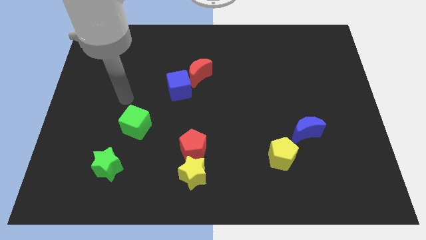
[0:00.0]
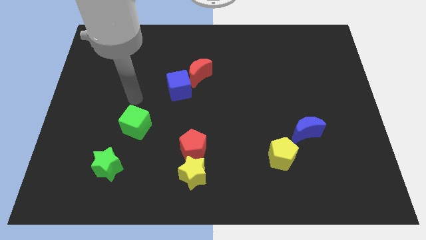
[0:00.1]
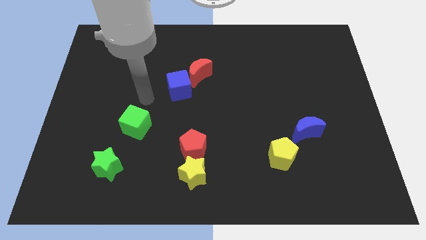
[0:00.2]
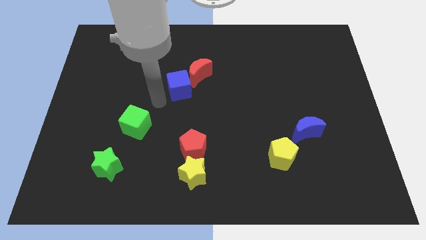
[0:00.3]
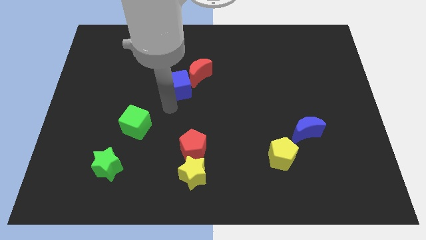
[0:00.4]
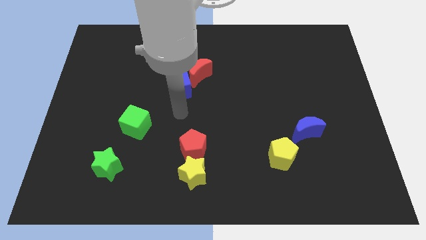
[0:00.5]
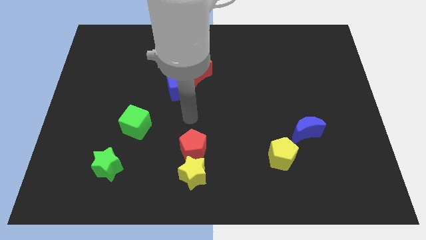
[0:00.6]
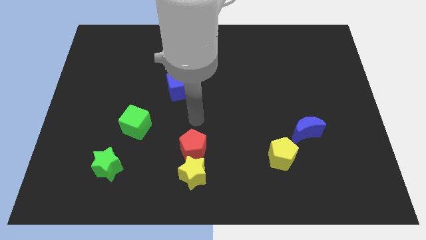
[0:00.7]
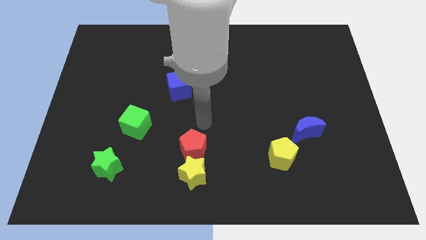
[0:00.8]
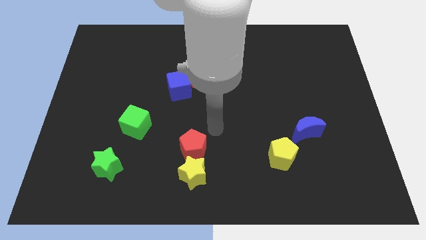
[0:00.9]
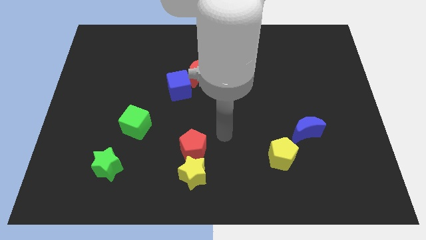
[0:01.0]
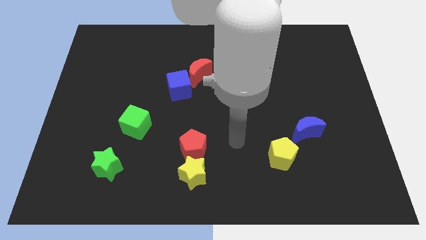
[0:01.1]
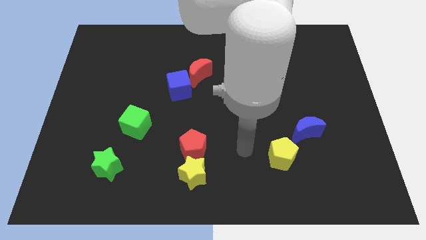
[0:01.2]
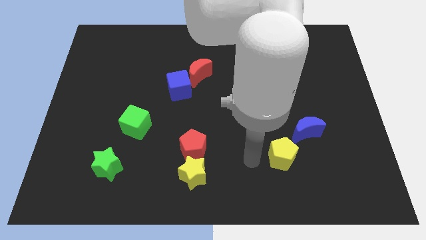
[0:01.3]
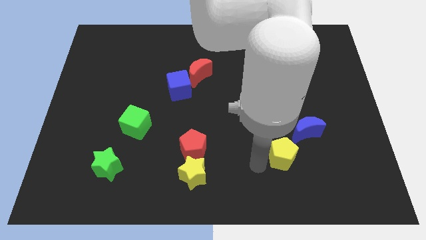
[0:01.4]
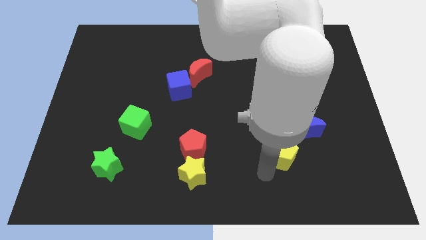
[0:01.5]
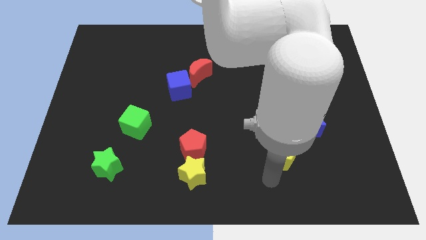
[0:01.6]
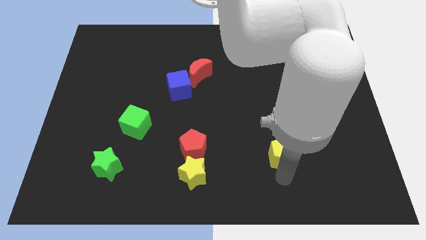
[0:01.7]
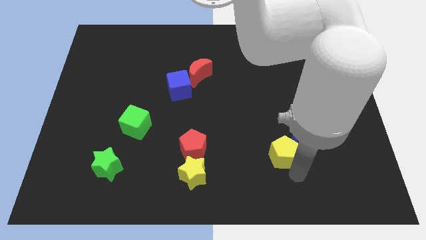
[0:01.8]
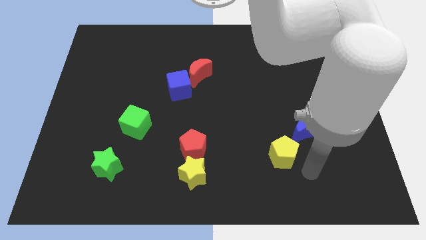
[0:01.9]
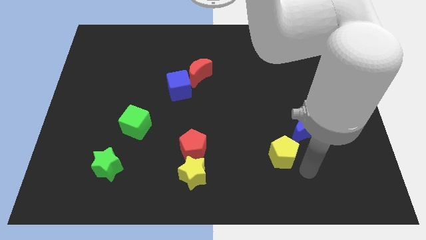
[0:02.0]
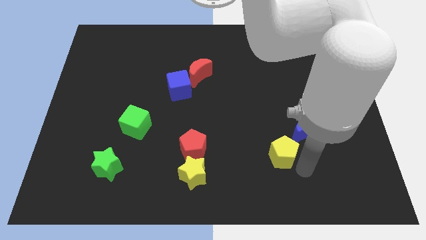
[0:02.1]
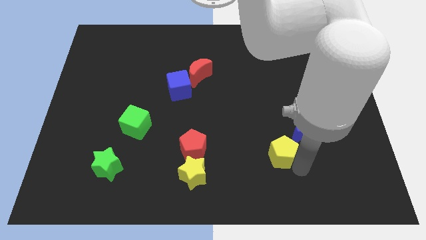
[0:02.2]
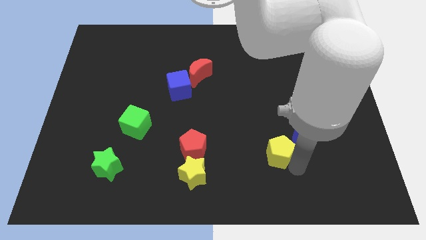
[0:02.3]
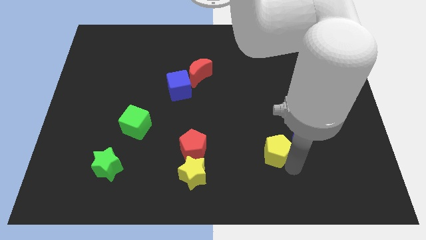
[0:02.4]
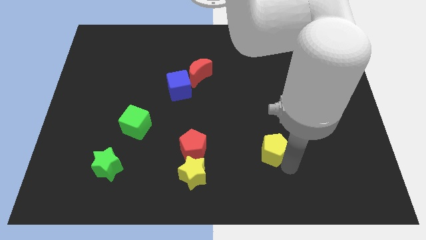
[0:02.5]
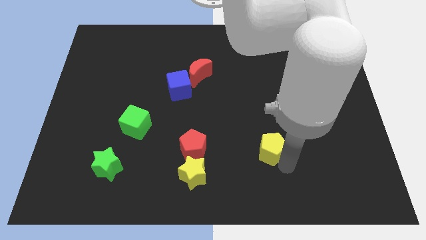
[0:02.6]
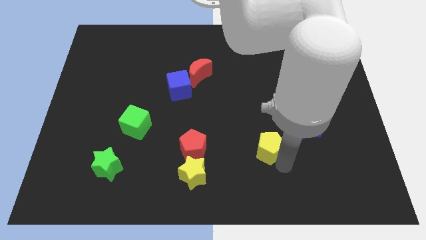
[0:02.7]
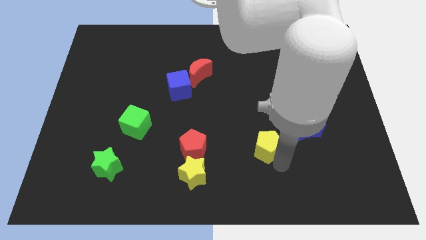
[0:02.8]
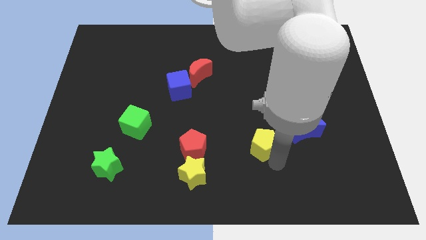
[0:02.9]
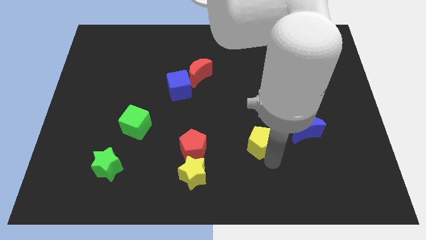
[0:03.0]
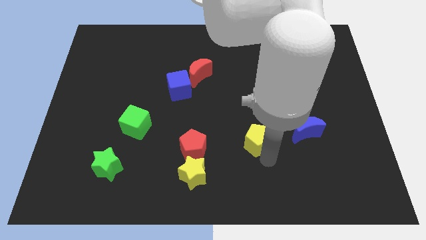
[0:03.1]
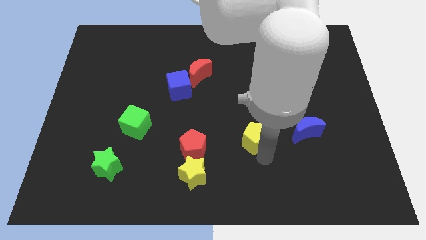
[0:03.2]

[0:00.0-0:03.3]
slightly slide the yellow pentagon upwards and then to the left

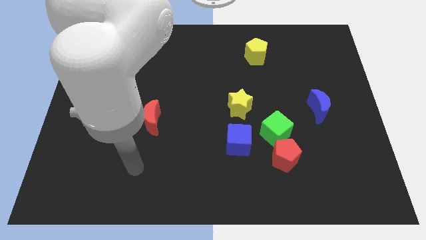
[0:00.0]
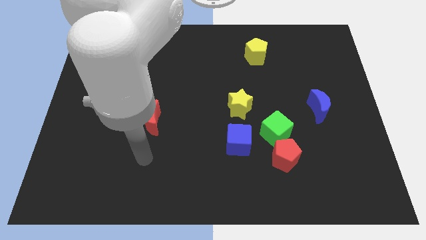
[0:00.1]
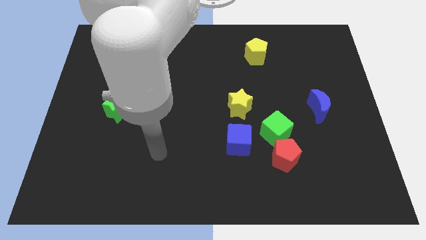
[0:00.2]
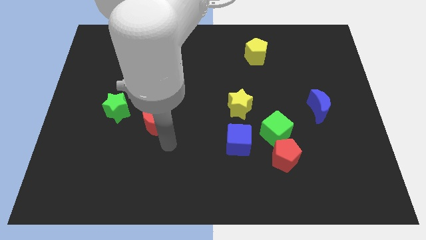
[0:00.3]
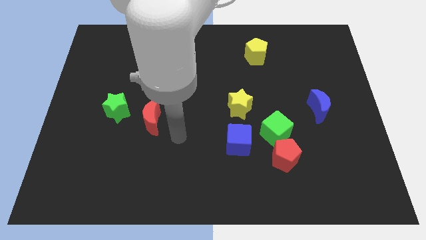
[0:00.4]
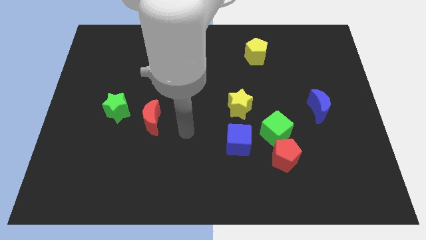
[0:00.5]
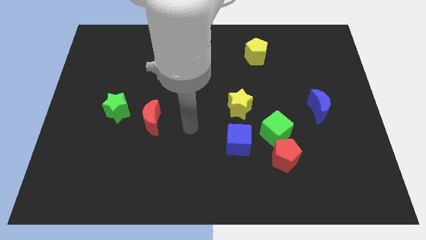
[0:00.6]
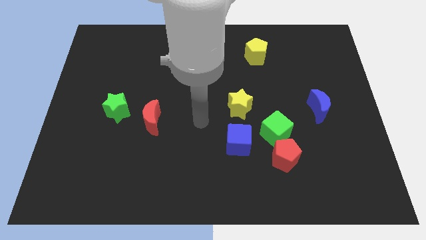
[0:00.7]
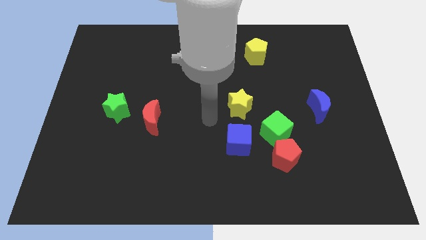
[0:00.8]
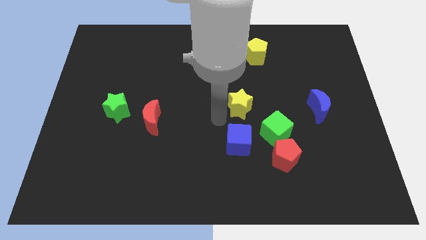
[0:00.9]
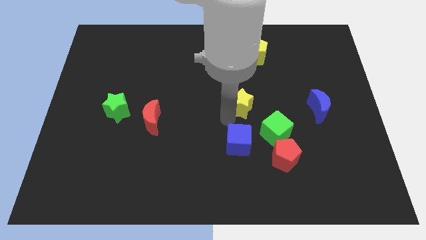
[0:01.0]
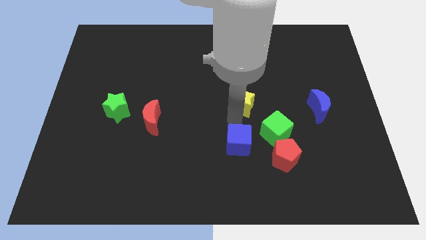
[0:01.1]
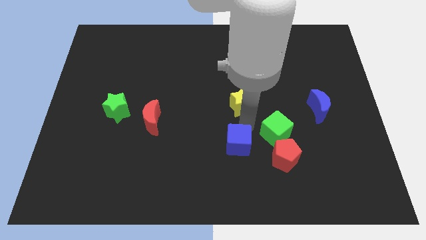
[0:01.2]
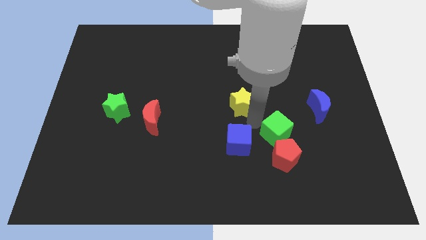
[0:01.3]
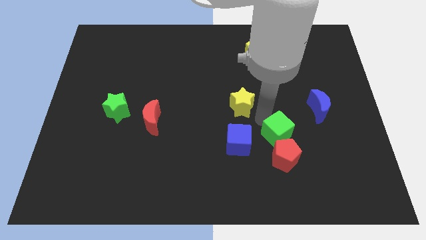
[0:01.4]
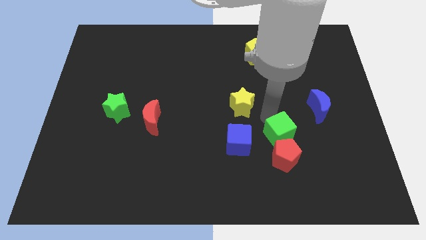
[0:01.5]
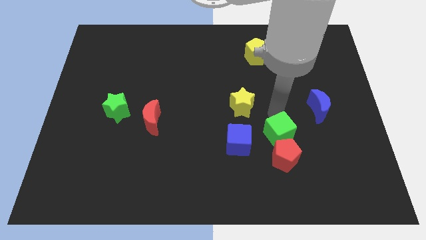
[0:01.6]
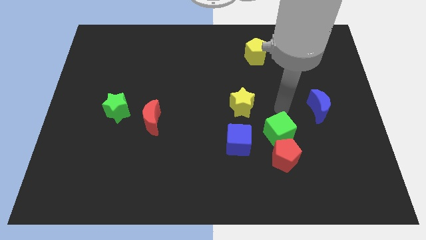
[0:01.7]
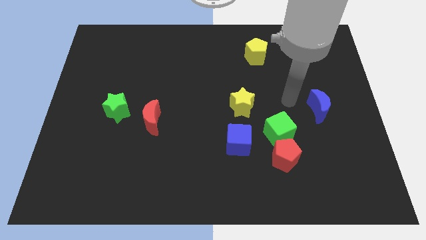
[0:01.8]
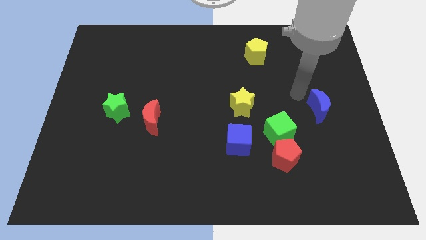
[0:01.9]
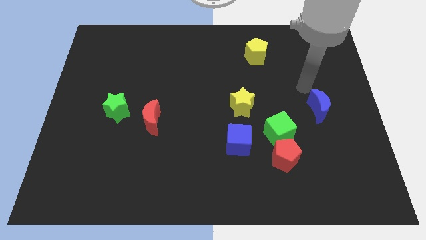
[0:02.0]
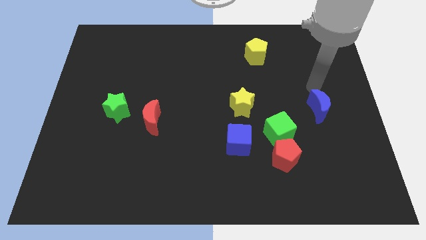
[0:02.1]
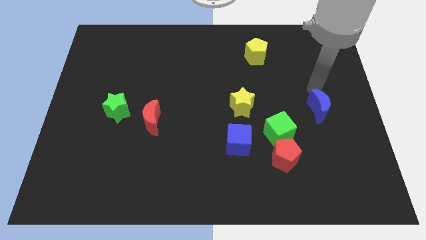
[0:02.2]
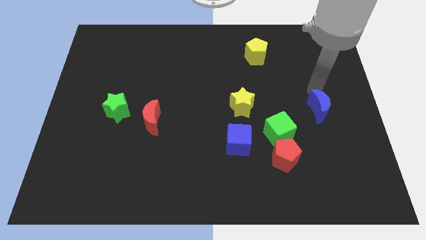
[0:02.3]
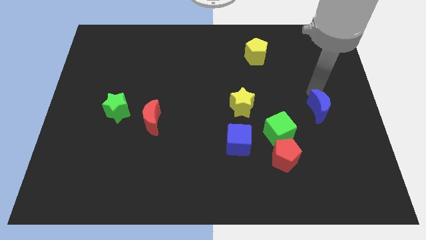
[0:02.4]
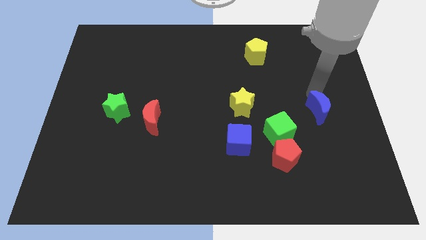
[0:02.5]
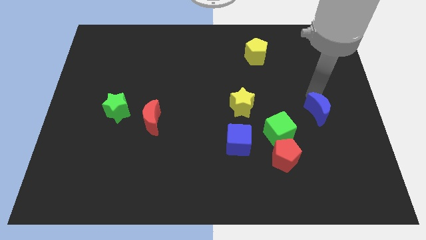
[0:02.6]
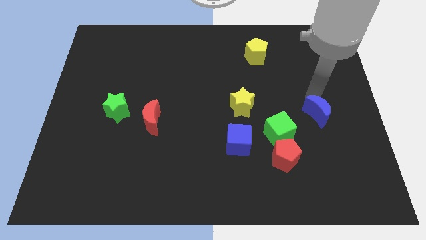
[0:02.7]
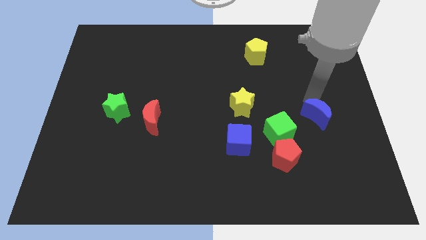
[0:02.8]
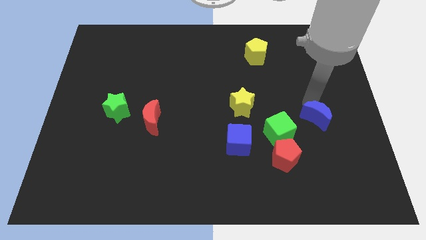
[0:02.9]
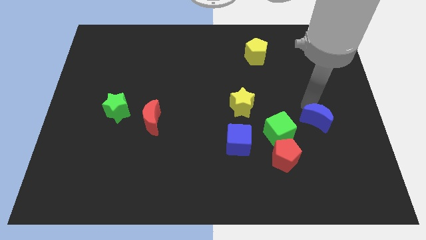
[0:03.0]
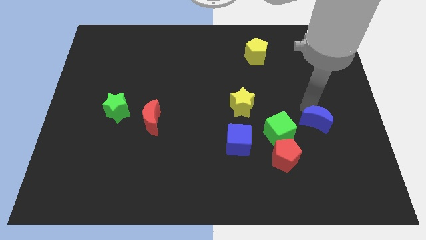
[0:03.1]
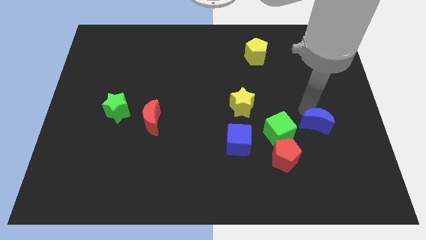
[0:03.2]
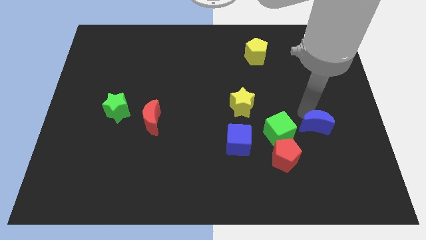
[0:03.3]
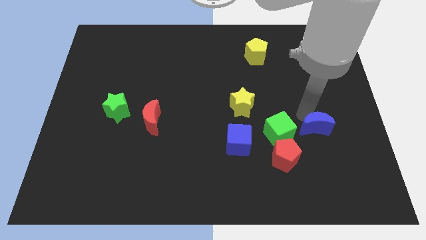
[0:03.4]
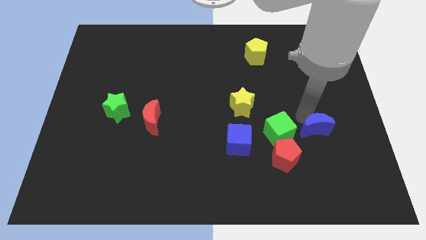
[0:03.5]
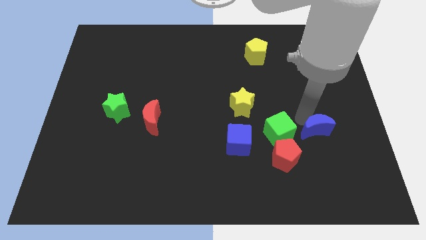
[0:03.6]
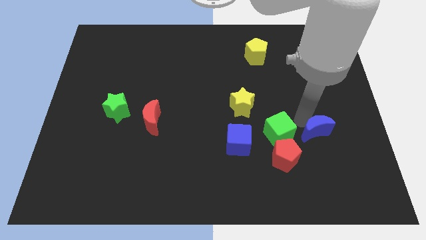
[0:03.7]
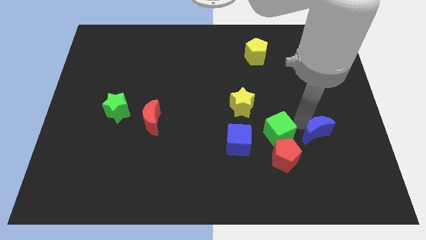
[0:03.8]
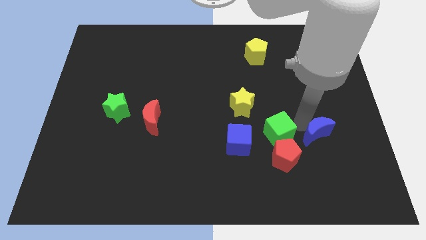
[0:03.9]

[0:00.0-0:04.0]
slightly slide the blue moon down

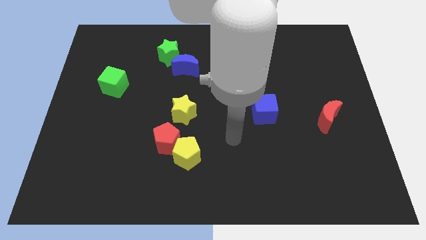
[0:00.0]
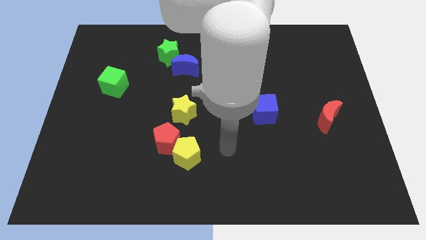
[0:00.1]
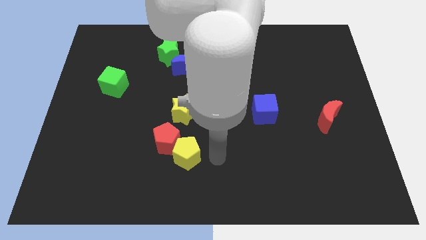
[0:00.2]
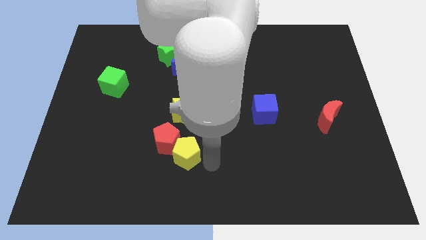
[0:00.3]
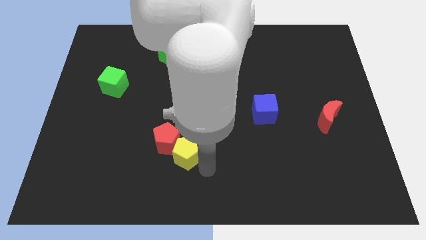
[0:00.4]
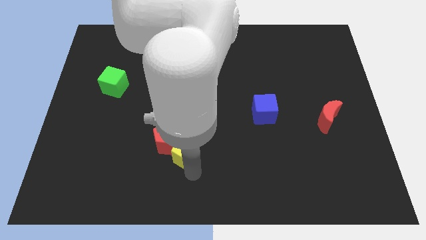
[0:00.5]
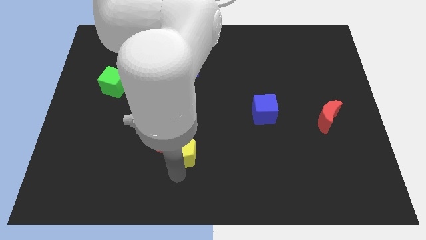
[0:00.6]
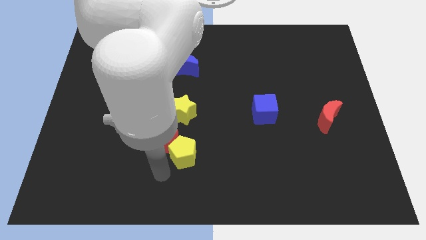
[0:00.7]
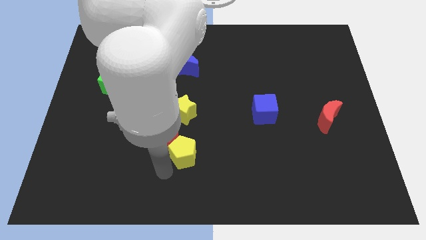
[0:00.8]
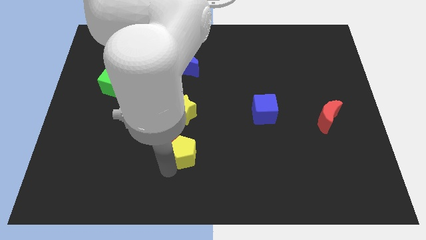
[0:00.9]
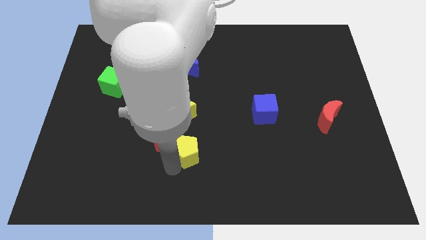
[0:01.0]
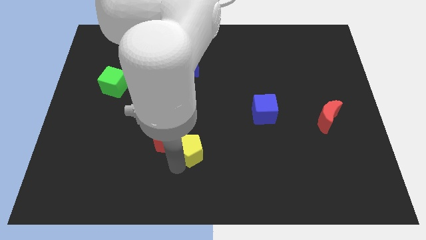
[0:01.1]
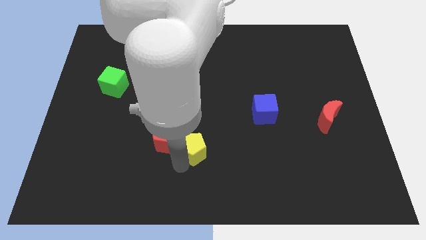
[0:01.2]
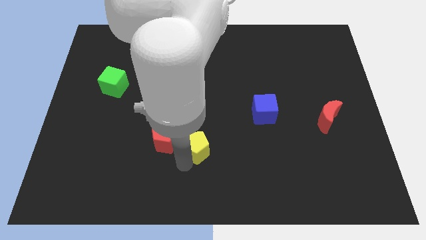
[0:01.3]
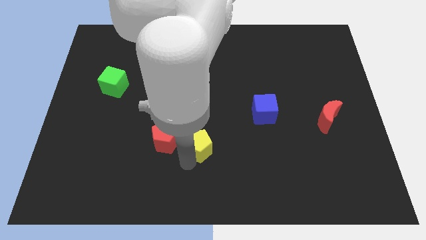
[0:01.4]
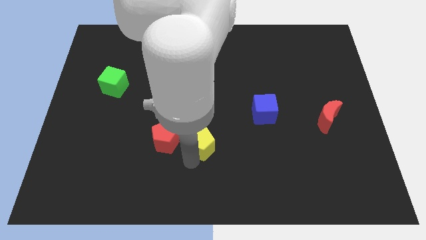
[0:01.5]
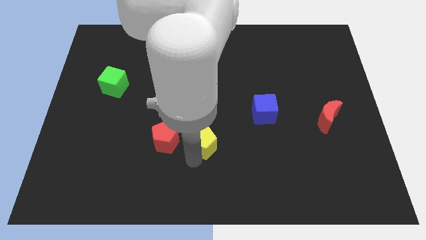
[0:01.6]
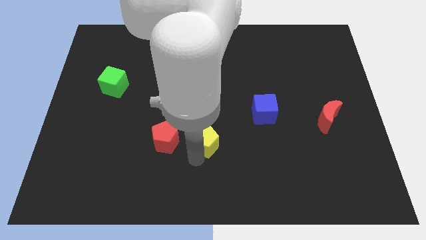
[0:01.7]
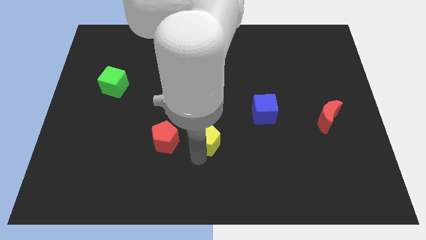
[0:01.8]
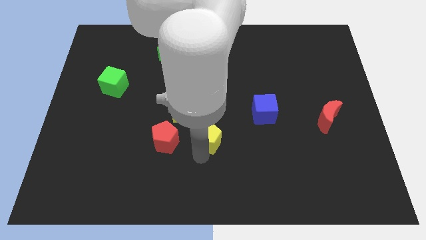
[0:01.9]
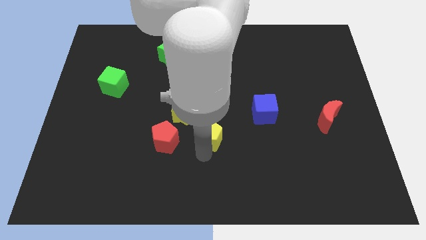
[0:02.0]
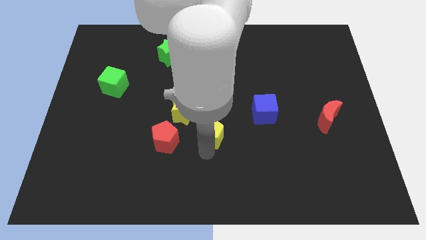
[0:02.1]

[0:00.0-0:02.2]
move the yellow pentagon a bit upwards and then right
